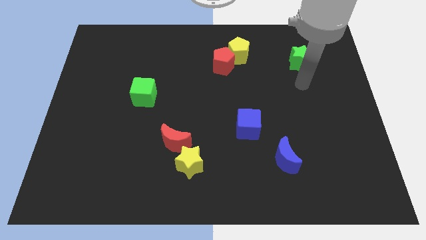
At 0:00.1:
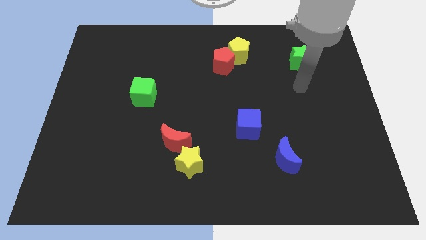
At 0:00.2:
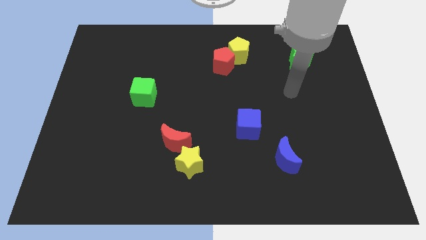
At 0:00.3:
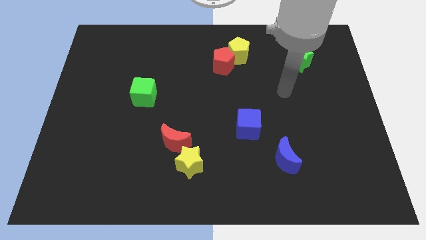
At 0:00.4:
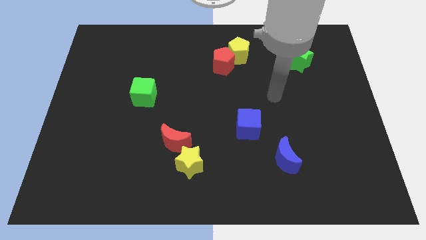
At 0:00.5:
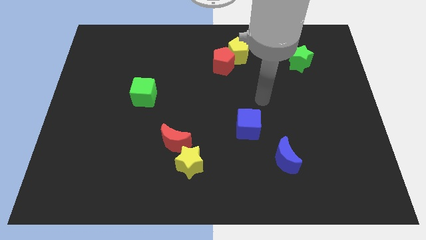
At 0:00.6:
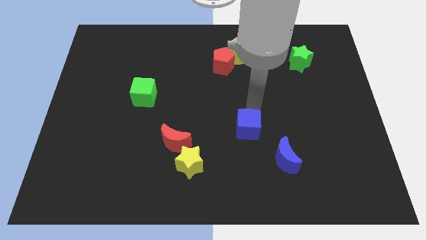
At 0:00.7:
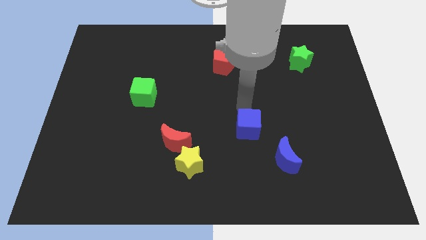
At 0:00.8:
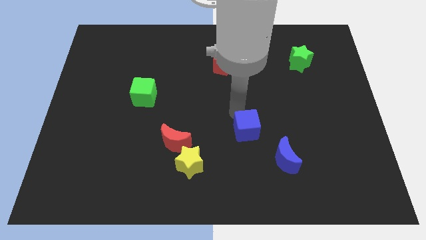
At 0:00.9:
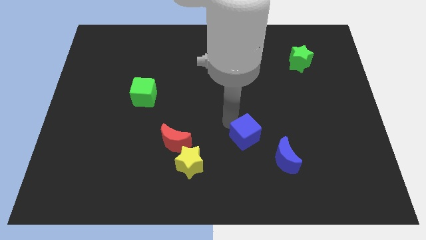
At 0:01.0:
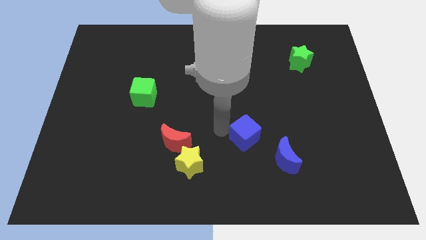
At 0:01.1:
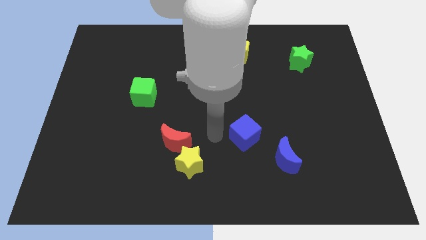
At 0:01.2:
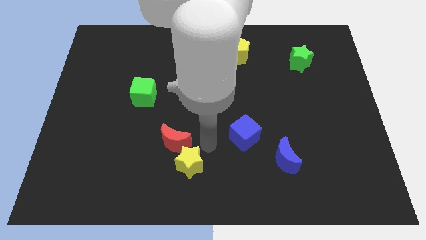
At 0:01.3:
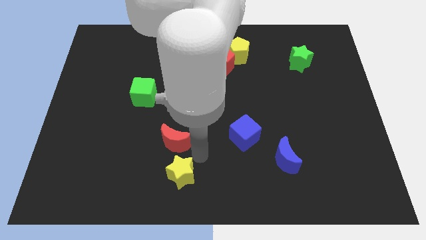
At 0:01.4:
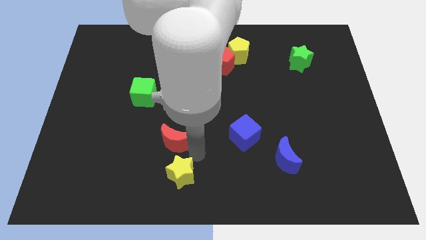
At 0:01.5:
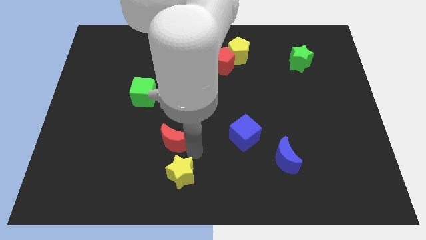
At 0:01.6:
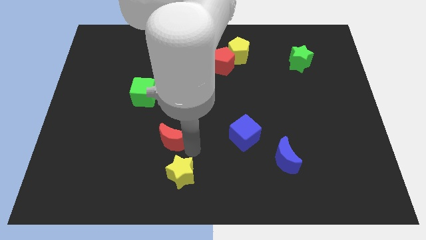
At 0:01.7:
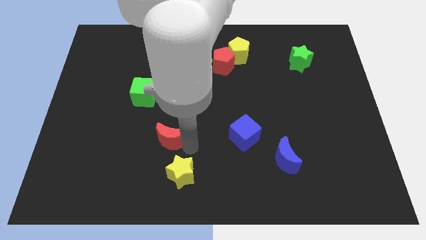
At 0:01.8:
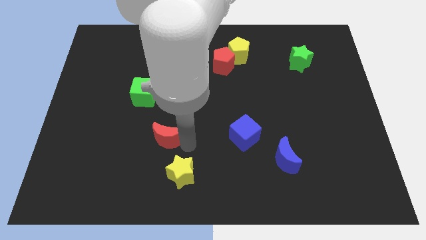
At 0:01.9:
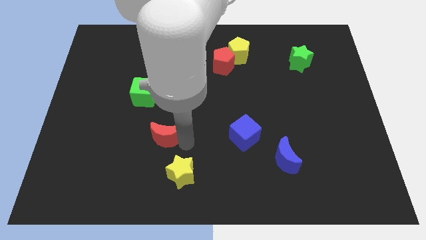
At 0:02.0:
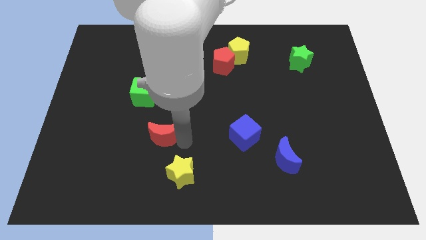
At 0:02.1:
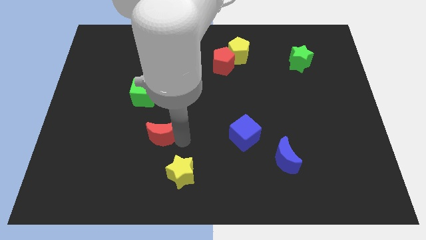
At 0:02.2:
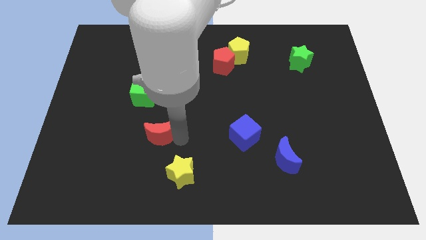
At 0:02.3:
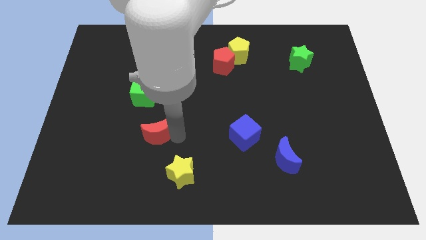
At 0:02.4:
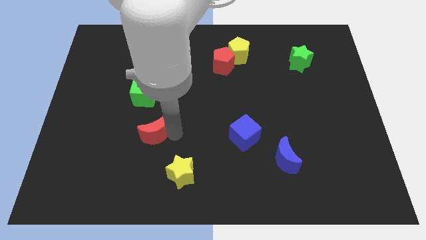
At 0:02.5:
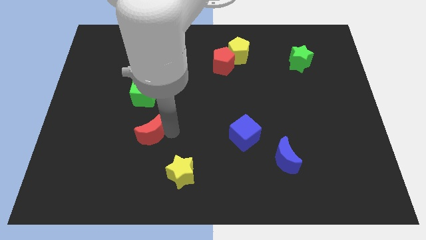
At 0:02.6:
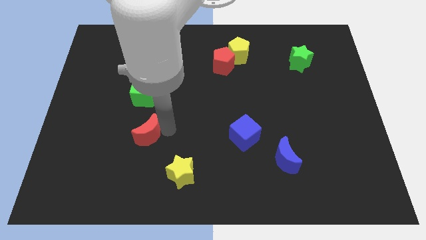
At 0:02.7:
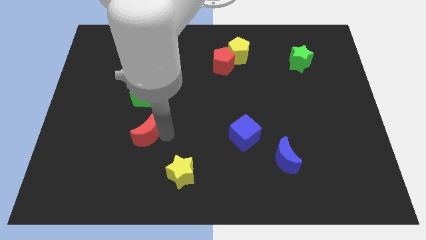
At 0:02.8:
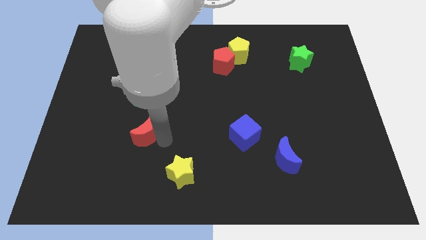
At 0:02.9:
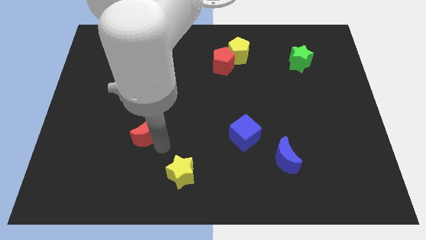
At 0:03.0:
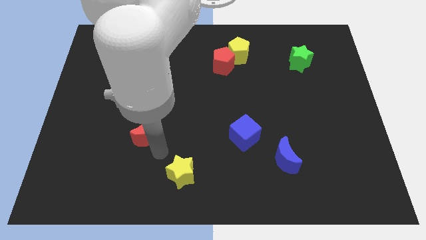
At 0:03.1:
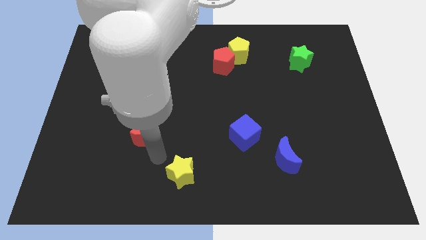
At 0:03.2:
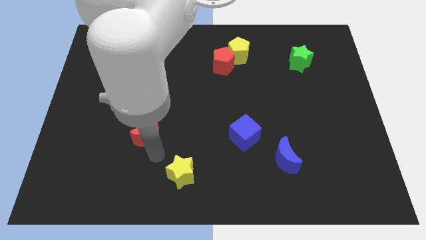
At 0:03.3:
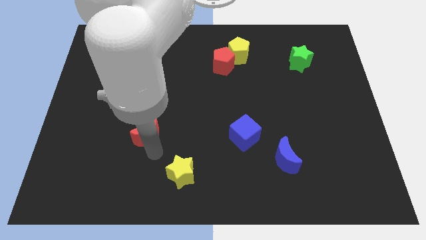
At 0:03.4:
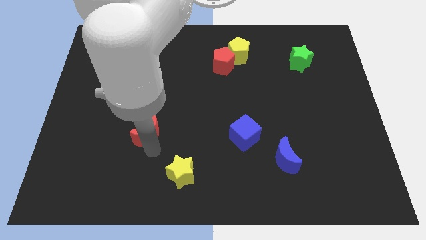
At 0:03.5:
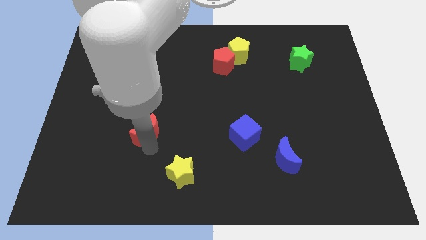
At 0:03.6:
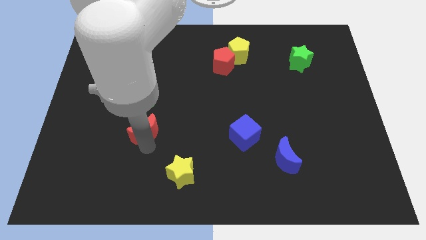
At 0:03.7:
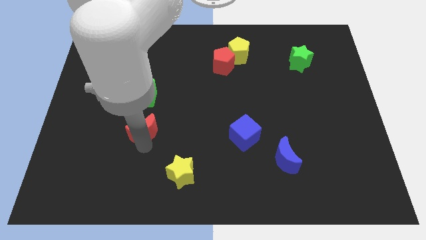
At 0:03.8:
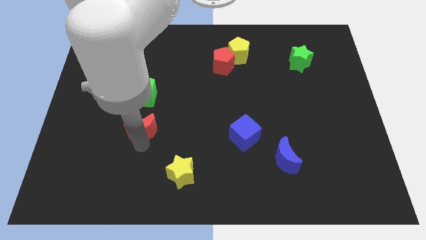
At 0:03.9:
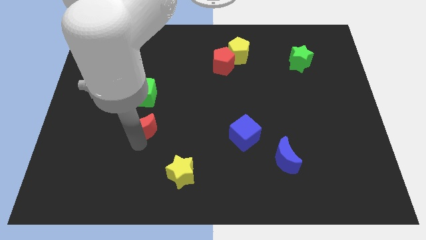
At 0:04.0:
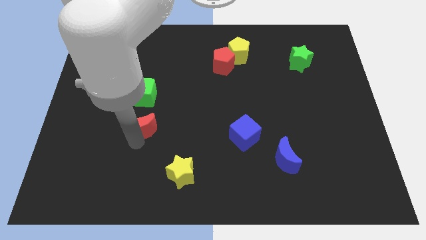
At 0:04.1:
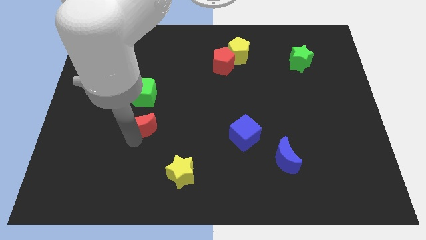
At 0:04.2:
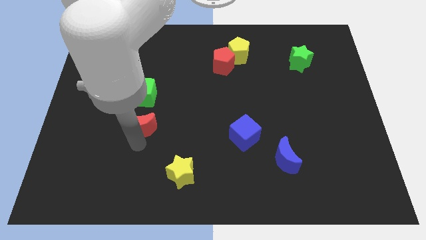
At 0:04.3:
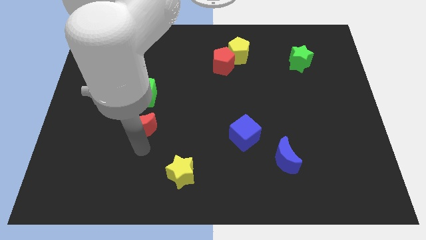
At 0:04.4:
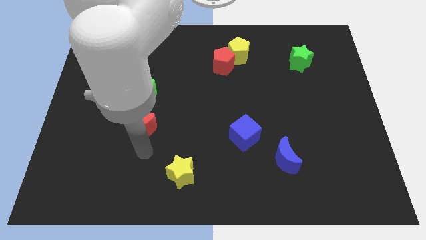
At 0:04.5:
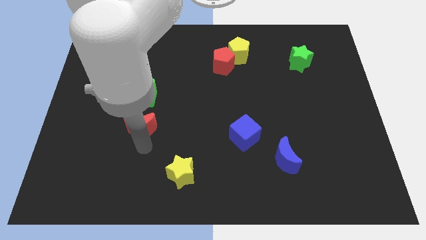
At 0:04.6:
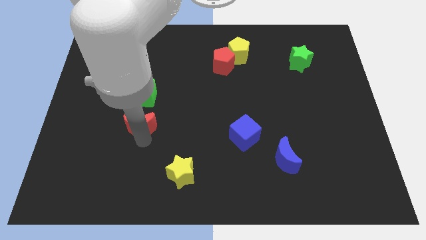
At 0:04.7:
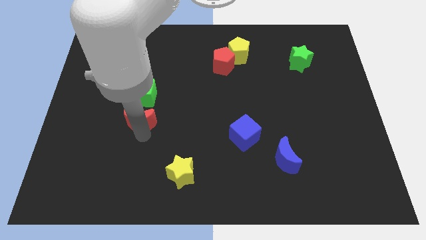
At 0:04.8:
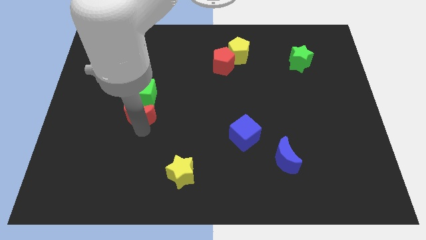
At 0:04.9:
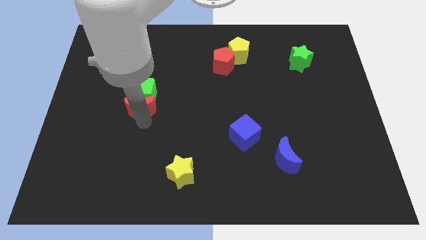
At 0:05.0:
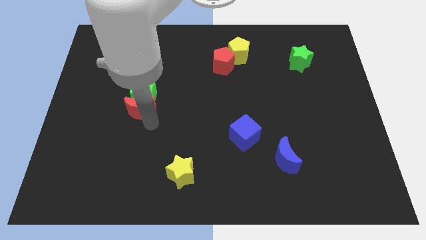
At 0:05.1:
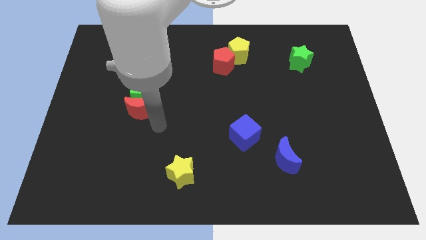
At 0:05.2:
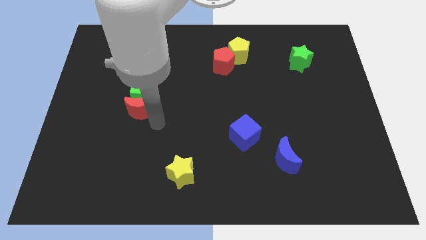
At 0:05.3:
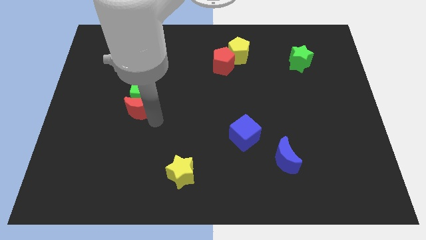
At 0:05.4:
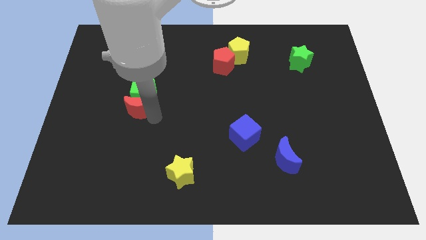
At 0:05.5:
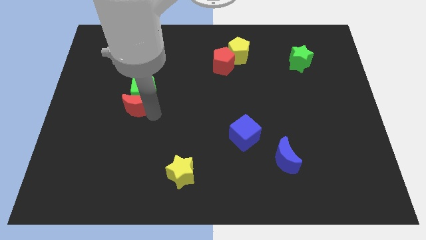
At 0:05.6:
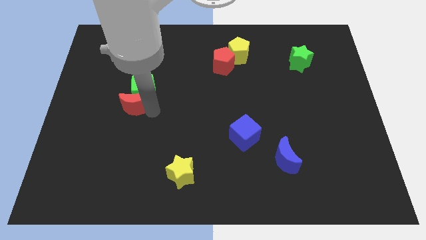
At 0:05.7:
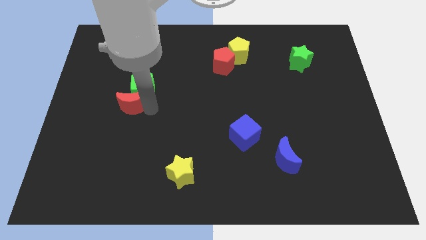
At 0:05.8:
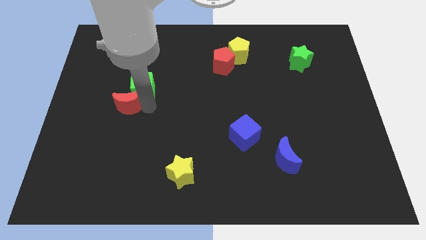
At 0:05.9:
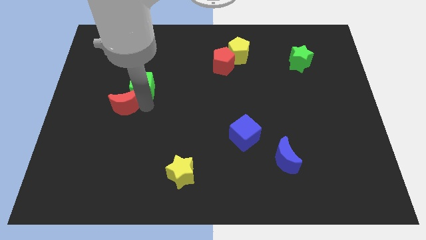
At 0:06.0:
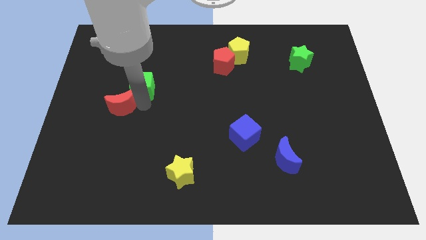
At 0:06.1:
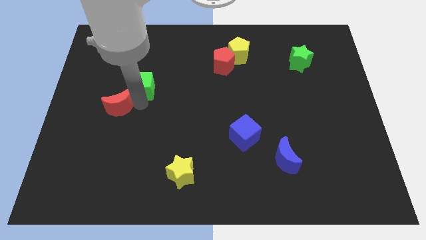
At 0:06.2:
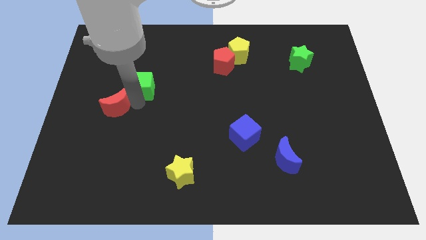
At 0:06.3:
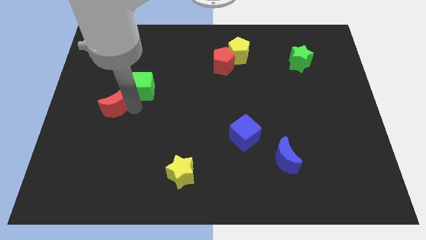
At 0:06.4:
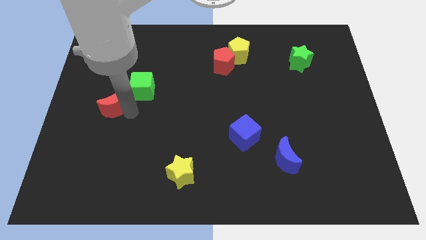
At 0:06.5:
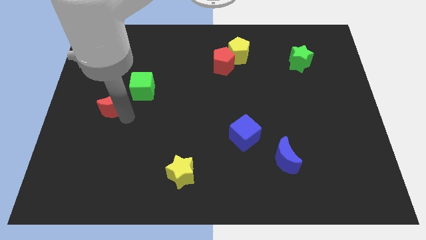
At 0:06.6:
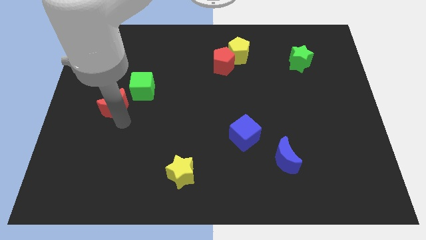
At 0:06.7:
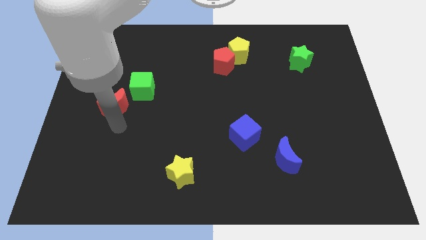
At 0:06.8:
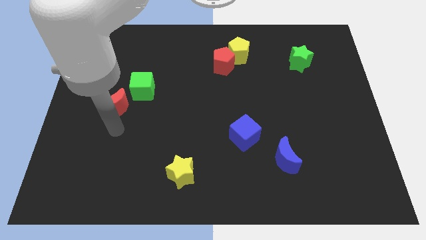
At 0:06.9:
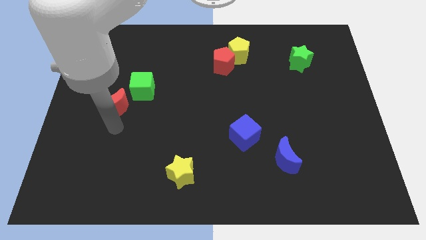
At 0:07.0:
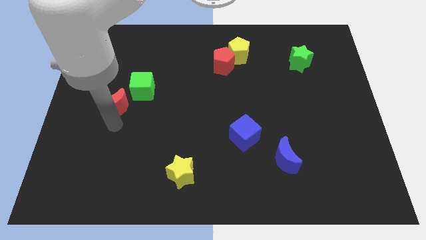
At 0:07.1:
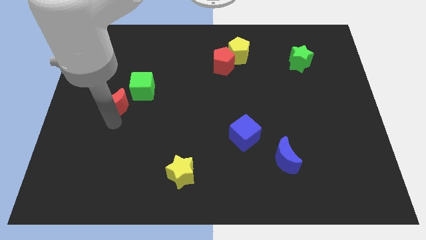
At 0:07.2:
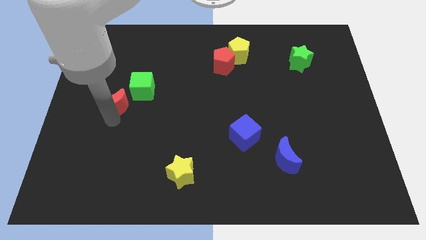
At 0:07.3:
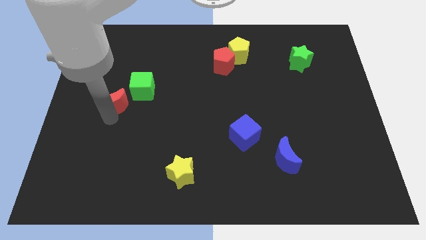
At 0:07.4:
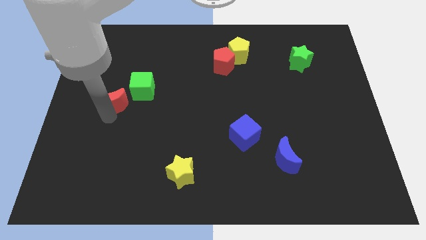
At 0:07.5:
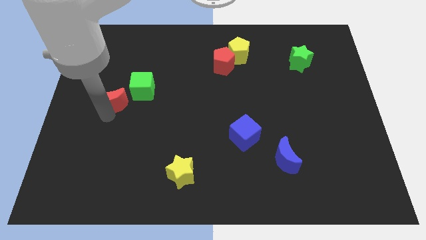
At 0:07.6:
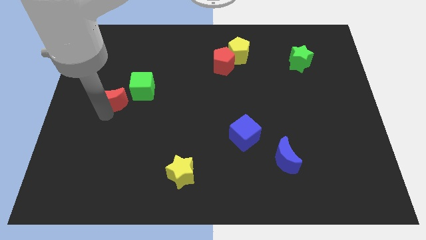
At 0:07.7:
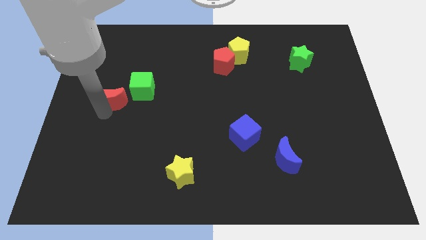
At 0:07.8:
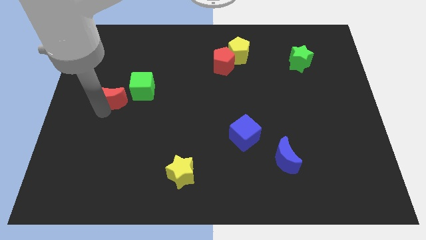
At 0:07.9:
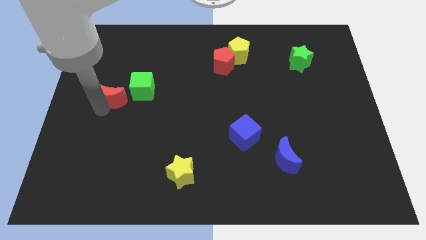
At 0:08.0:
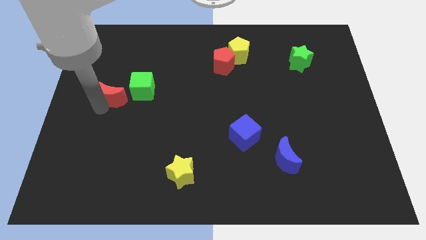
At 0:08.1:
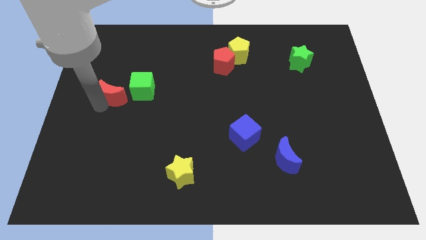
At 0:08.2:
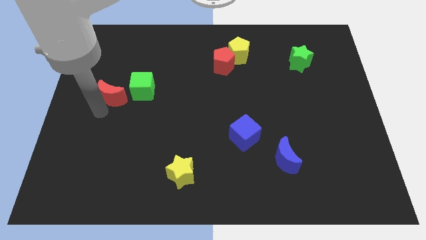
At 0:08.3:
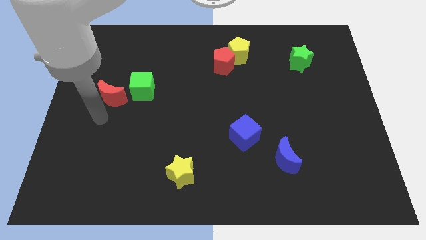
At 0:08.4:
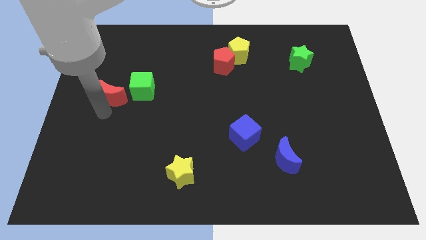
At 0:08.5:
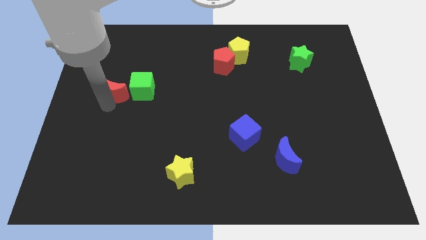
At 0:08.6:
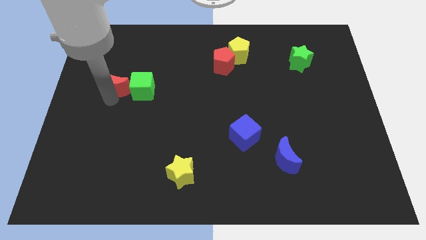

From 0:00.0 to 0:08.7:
move the red moon to the top left of the green cube
